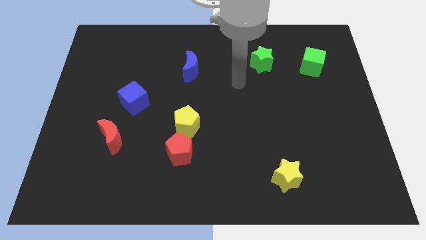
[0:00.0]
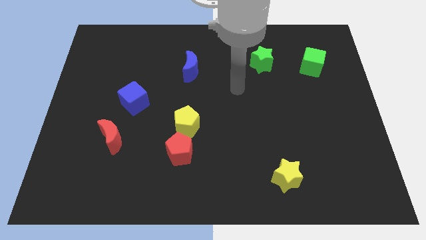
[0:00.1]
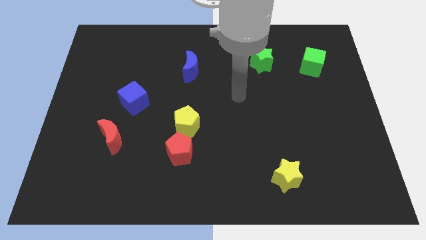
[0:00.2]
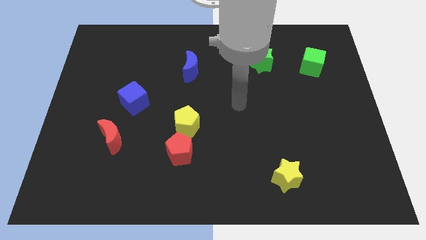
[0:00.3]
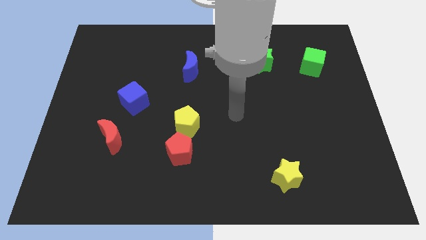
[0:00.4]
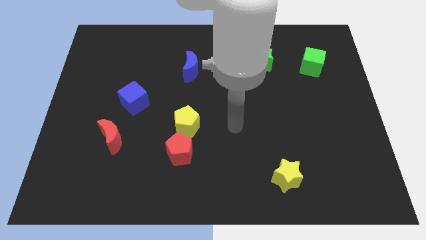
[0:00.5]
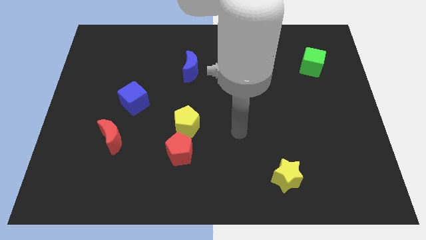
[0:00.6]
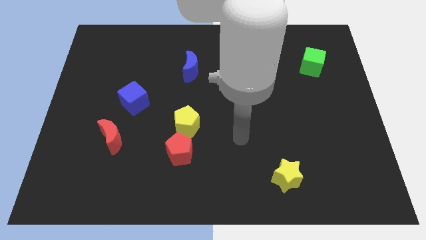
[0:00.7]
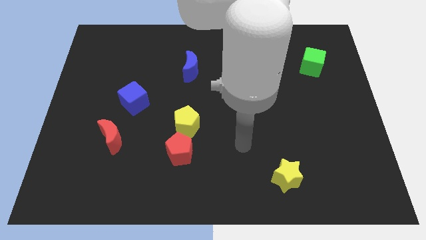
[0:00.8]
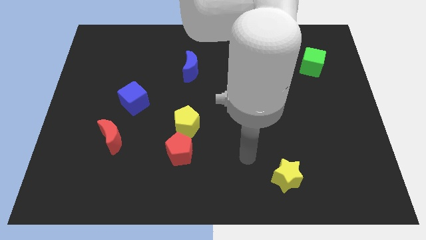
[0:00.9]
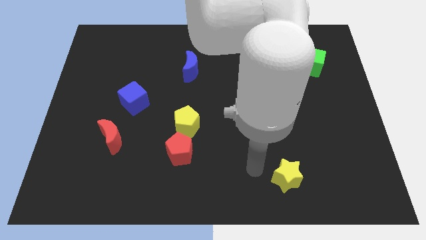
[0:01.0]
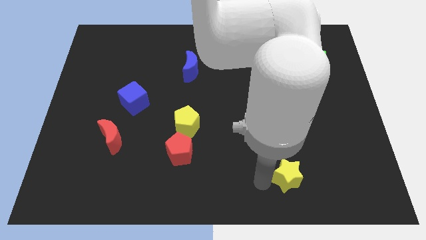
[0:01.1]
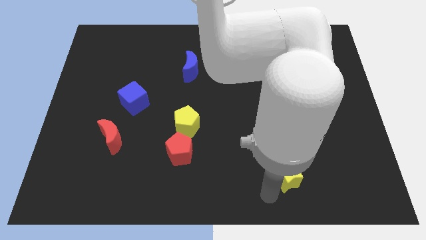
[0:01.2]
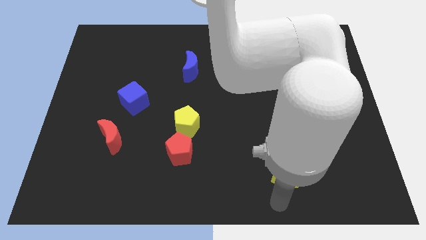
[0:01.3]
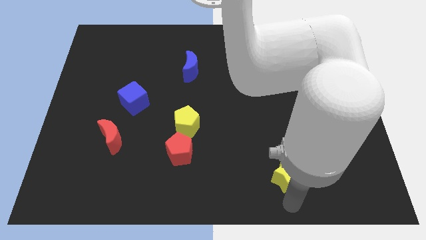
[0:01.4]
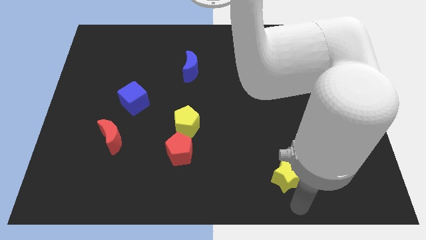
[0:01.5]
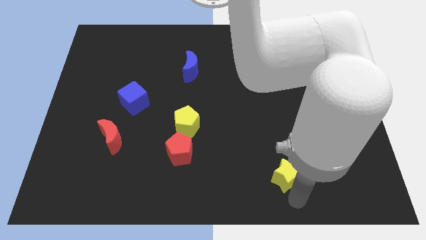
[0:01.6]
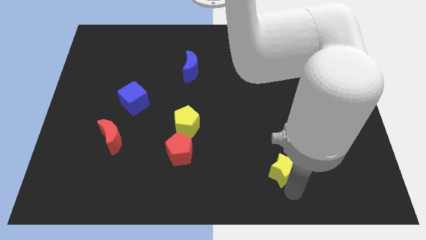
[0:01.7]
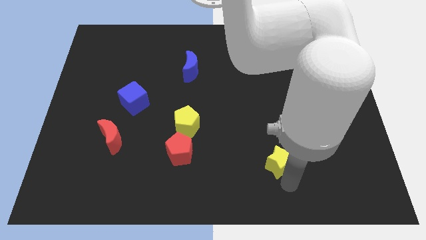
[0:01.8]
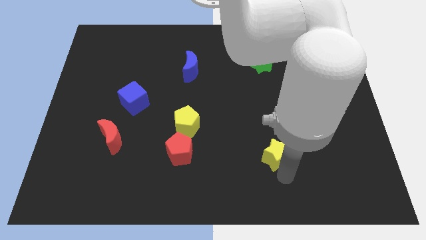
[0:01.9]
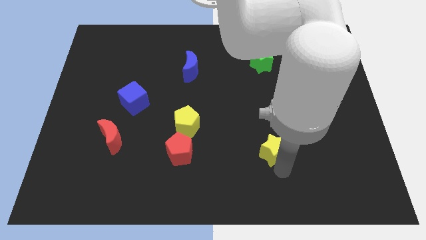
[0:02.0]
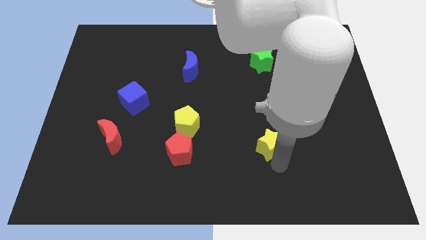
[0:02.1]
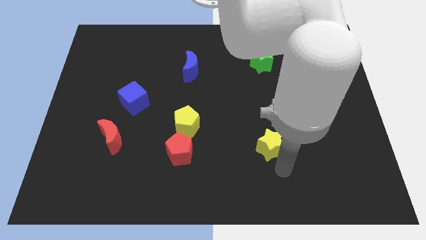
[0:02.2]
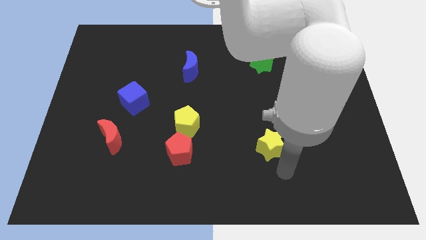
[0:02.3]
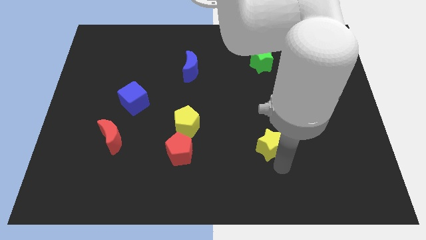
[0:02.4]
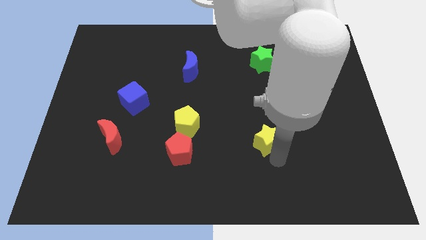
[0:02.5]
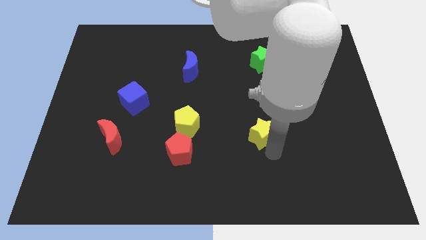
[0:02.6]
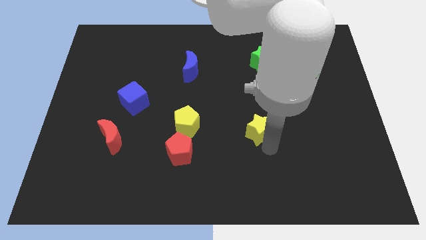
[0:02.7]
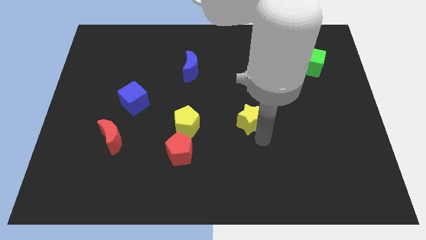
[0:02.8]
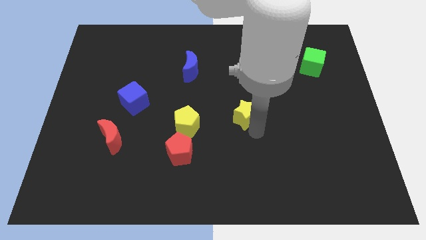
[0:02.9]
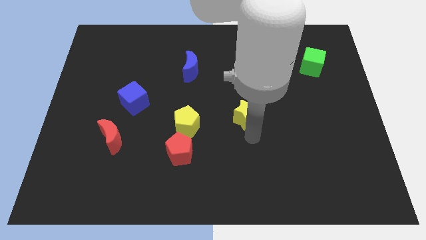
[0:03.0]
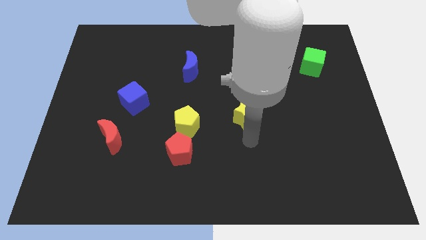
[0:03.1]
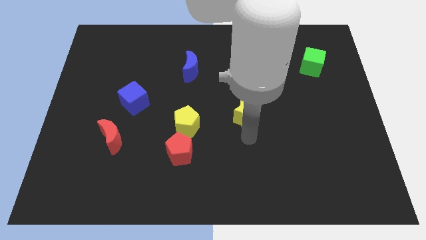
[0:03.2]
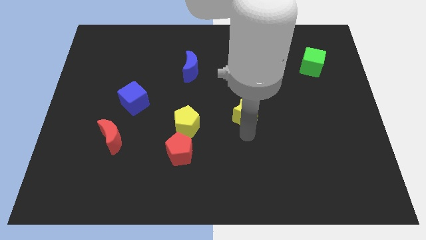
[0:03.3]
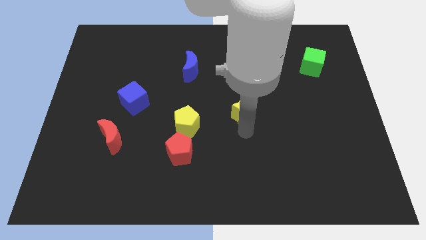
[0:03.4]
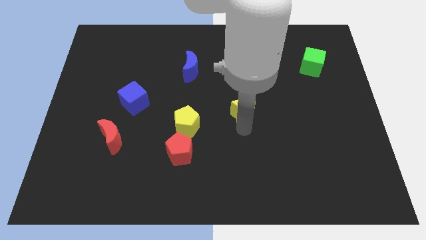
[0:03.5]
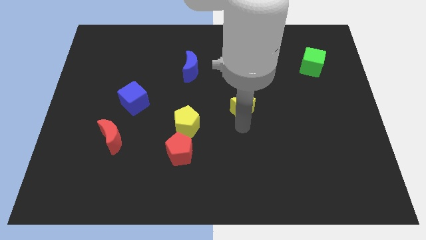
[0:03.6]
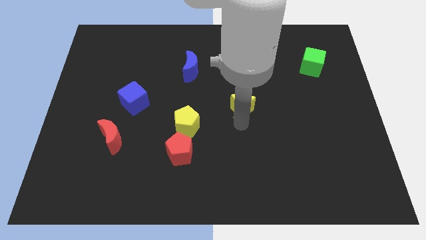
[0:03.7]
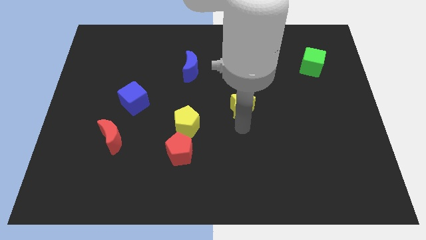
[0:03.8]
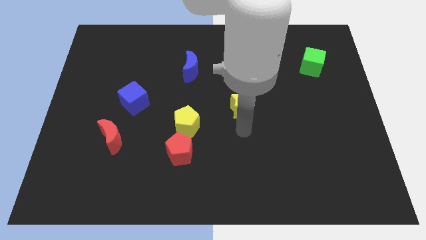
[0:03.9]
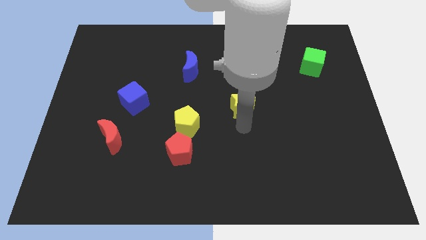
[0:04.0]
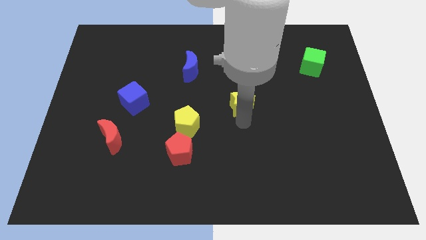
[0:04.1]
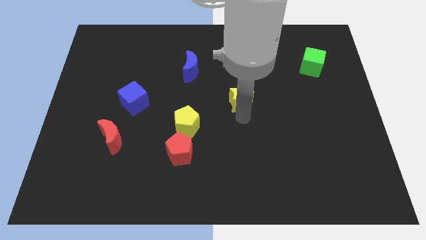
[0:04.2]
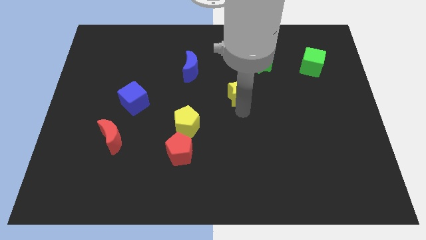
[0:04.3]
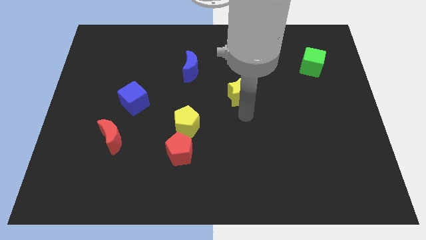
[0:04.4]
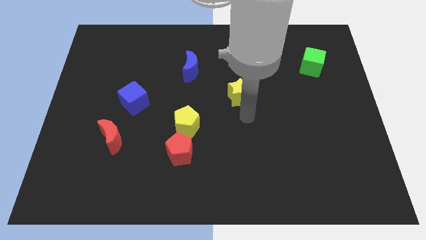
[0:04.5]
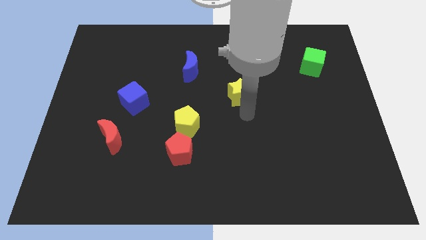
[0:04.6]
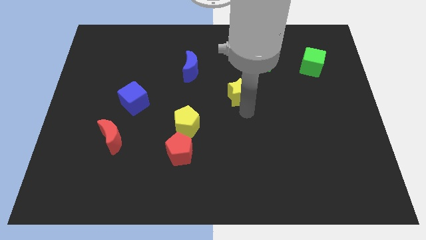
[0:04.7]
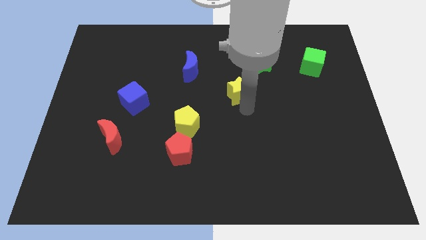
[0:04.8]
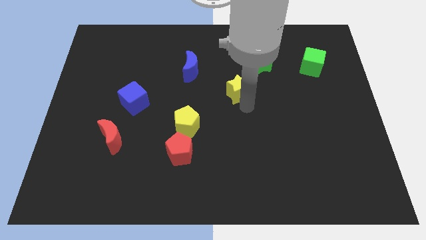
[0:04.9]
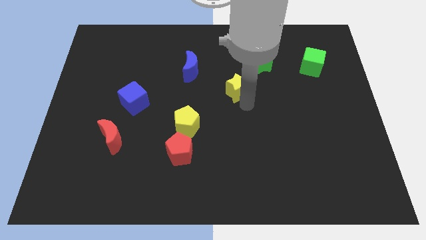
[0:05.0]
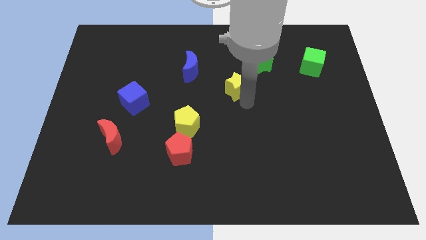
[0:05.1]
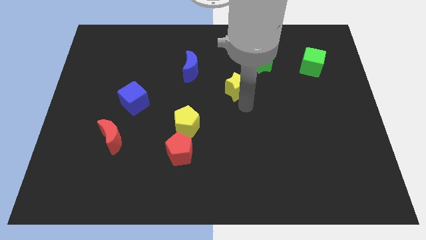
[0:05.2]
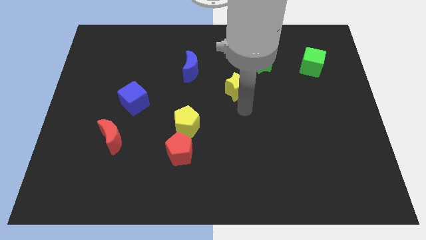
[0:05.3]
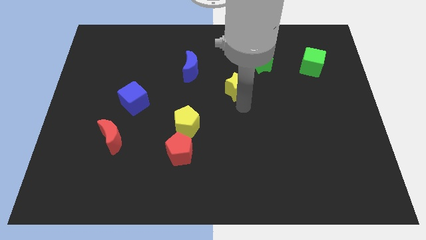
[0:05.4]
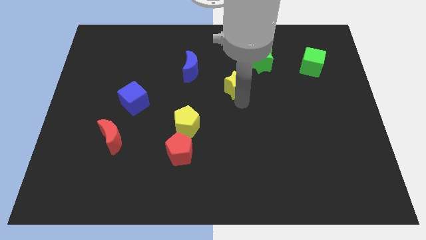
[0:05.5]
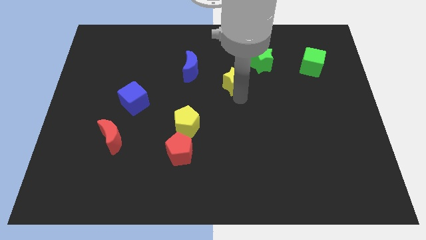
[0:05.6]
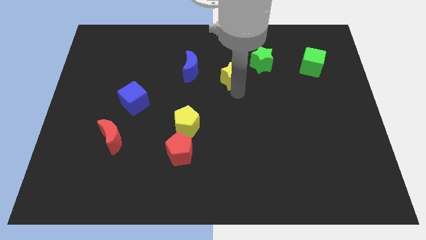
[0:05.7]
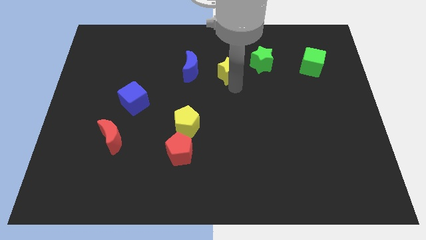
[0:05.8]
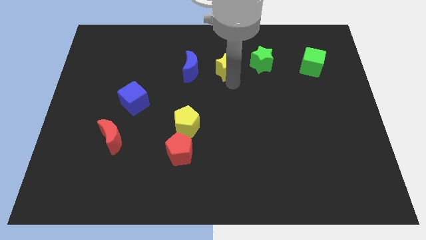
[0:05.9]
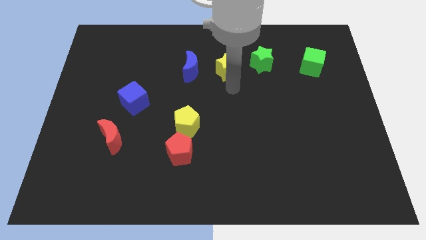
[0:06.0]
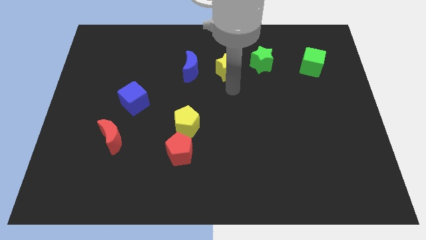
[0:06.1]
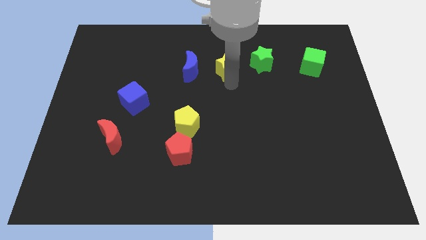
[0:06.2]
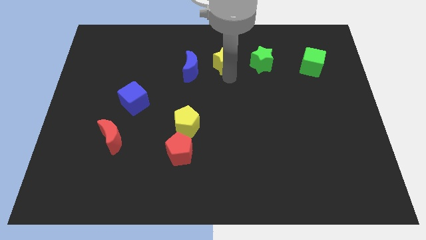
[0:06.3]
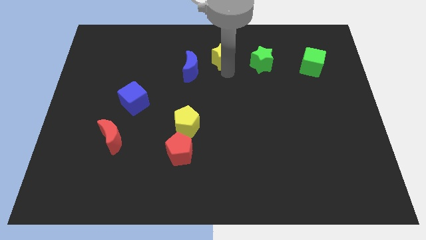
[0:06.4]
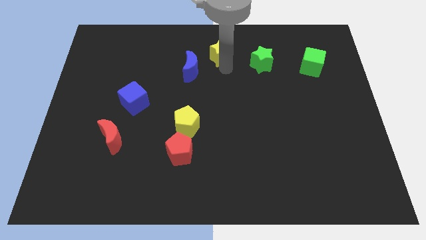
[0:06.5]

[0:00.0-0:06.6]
slide the yellow star to the towards your base
